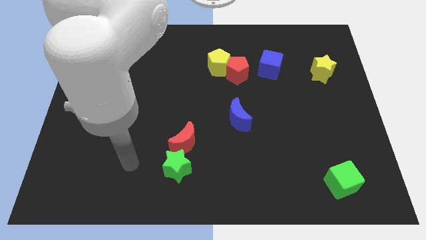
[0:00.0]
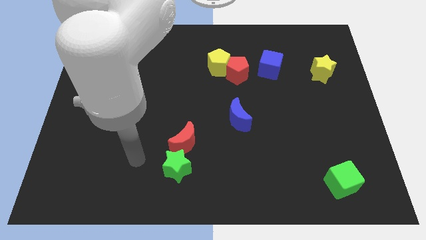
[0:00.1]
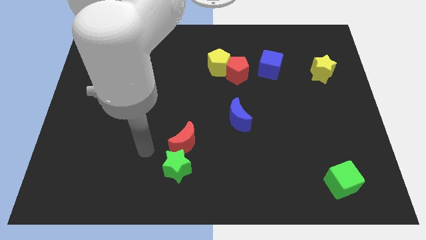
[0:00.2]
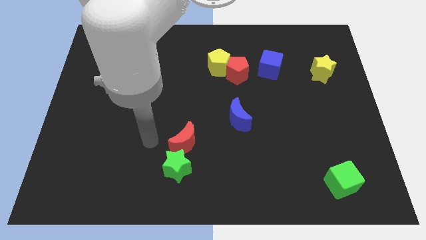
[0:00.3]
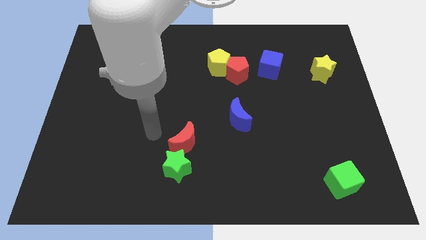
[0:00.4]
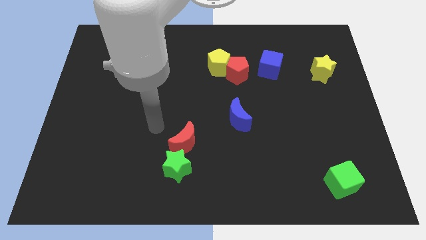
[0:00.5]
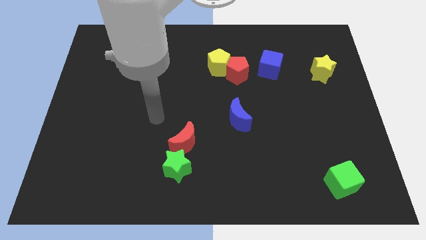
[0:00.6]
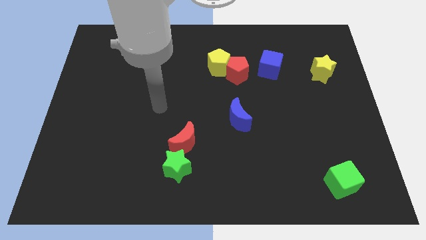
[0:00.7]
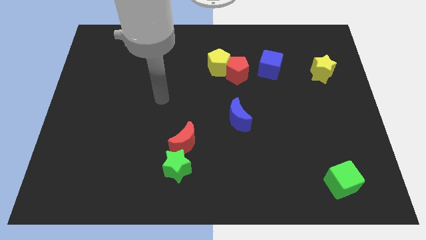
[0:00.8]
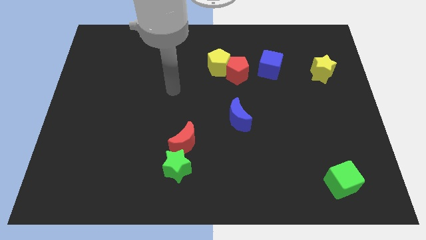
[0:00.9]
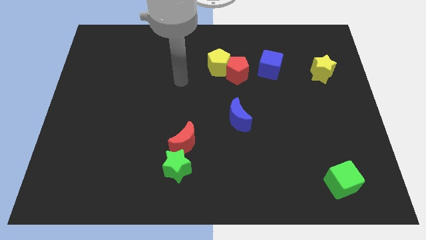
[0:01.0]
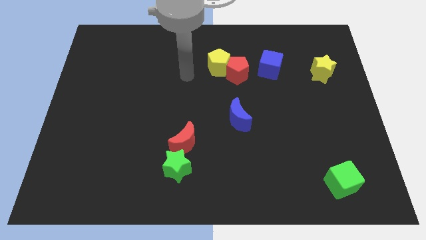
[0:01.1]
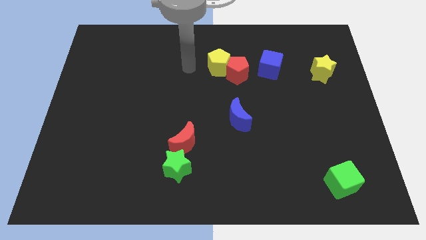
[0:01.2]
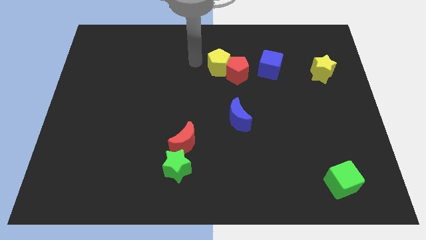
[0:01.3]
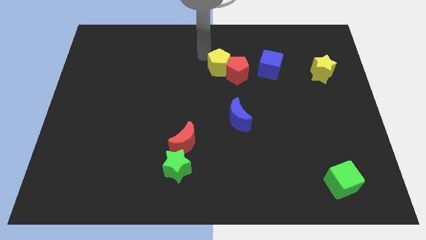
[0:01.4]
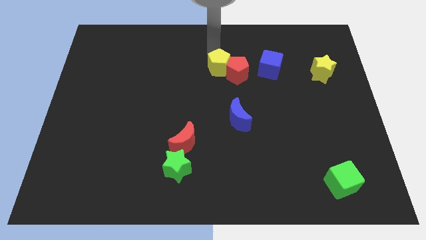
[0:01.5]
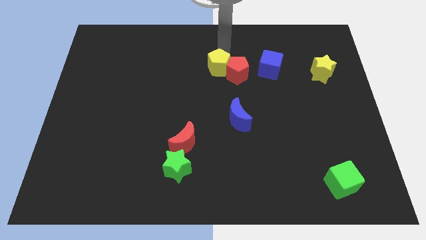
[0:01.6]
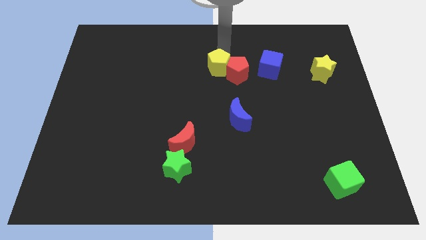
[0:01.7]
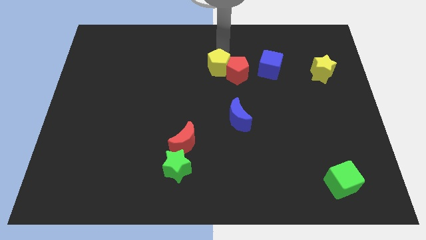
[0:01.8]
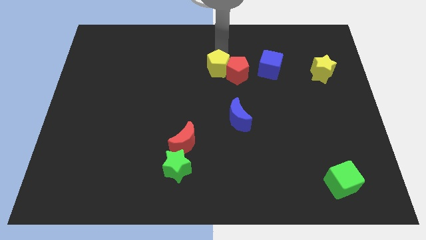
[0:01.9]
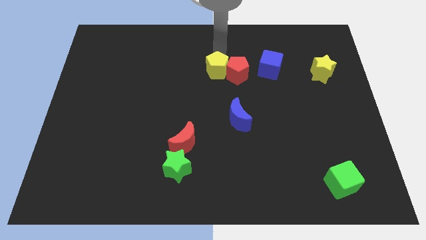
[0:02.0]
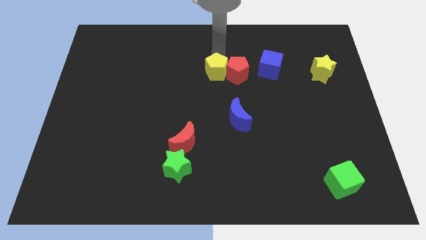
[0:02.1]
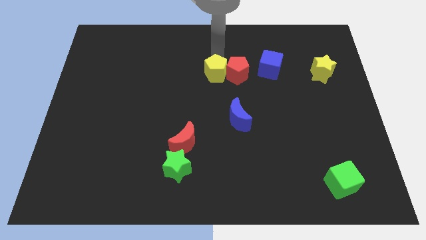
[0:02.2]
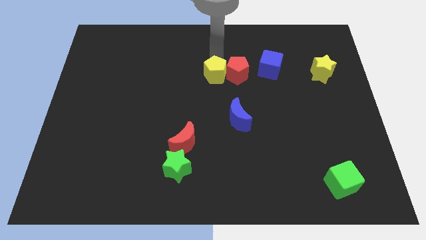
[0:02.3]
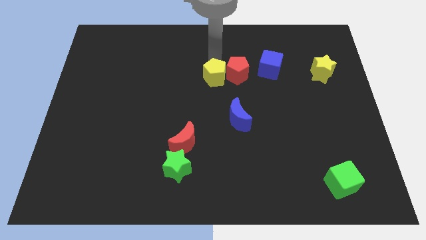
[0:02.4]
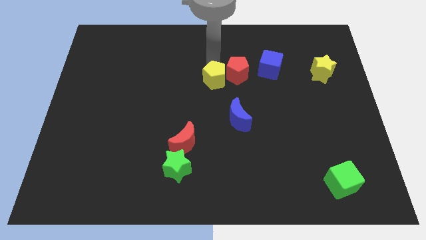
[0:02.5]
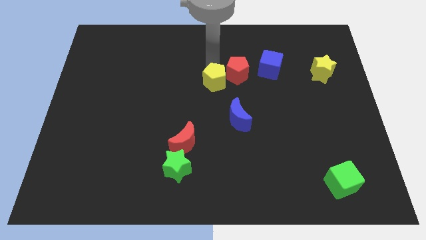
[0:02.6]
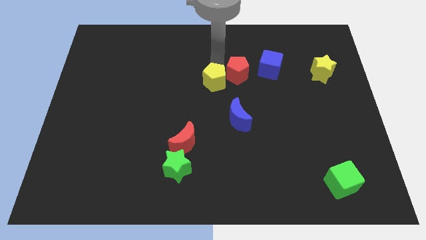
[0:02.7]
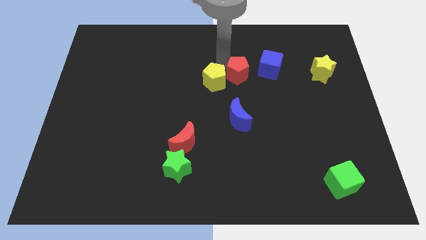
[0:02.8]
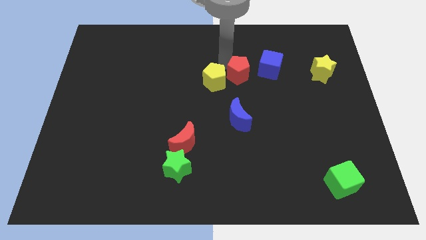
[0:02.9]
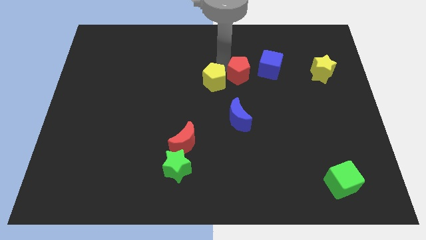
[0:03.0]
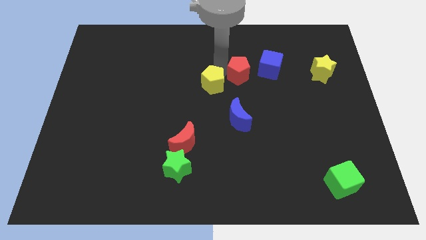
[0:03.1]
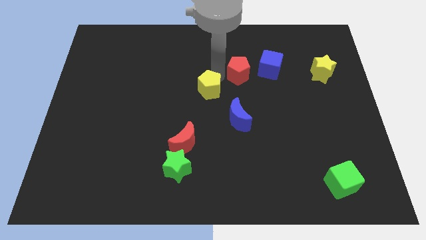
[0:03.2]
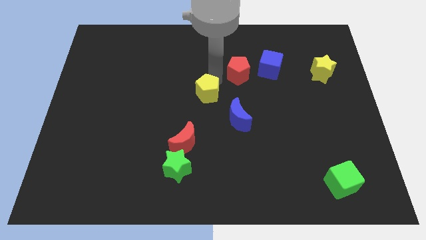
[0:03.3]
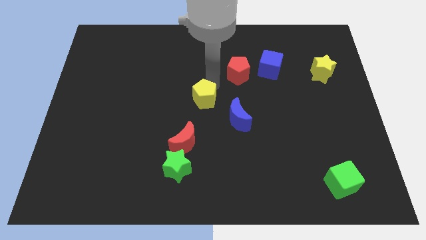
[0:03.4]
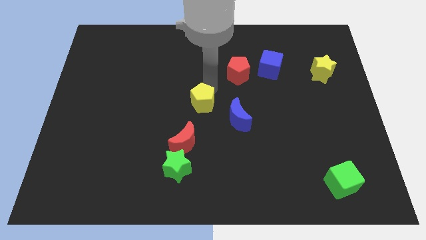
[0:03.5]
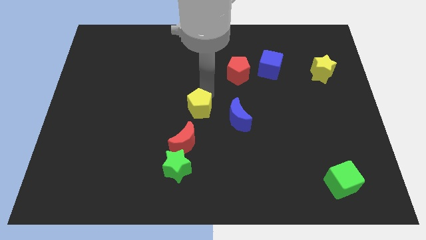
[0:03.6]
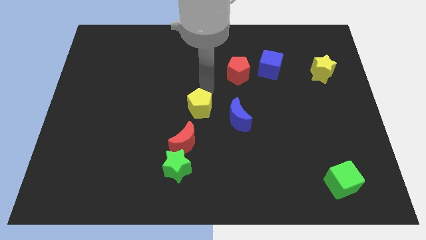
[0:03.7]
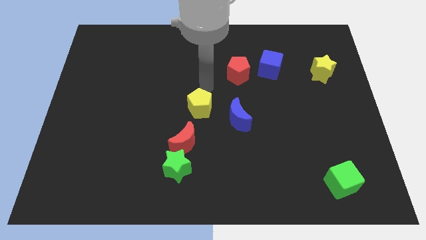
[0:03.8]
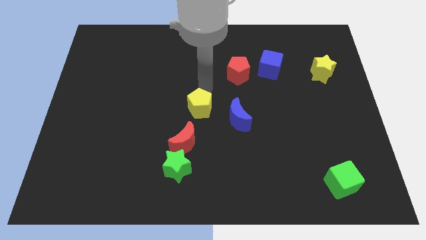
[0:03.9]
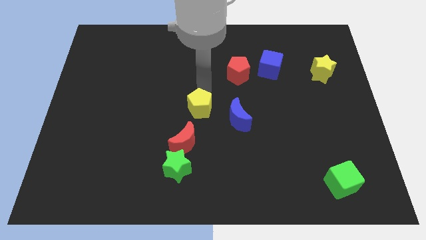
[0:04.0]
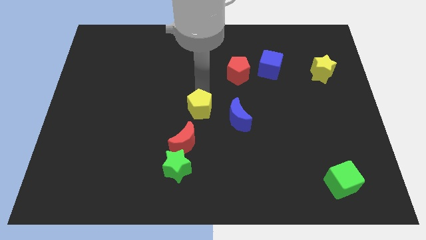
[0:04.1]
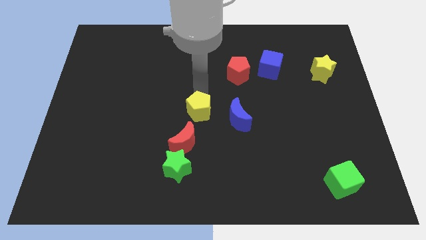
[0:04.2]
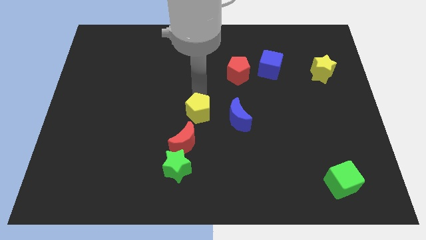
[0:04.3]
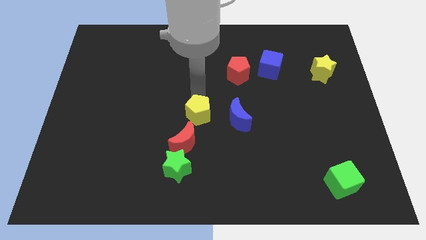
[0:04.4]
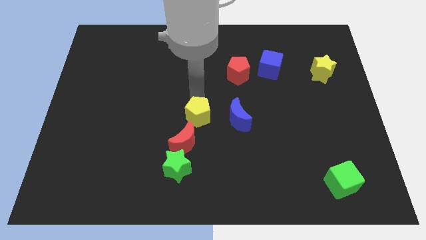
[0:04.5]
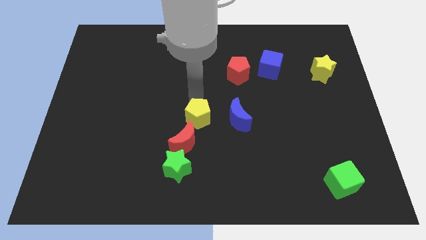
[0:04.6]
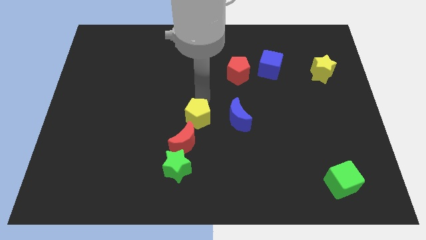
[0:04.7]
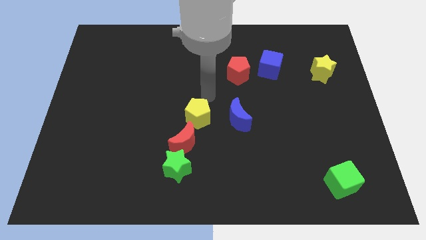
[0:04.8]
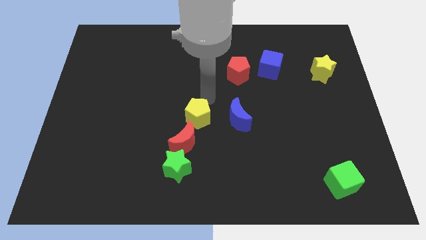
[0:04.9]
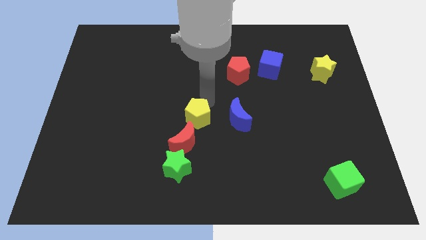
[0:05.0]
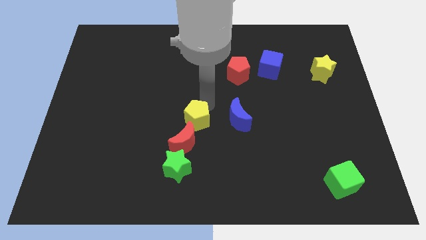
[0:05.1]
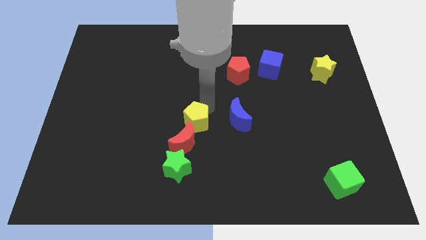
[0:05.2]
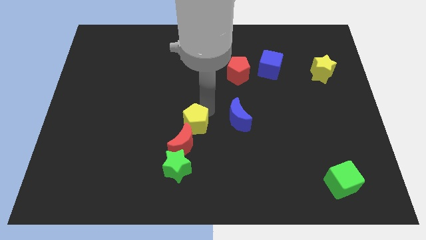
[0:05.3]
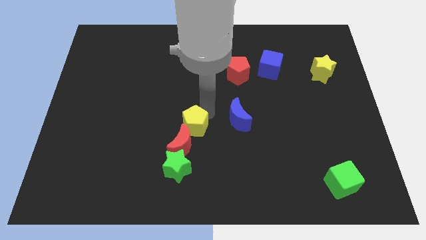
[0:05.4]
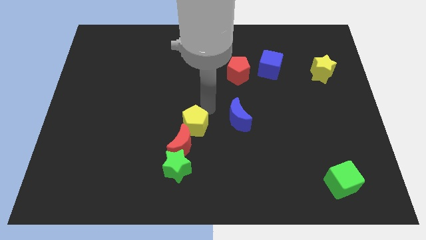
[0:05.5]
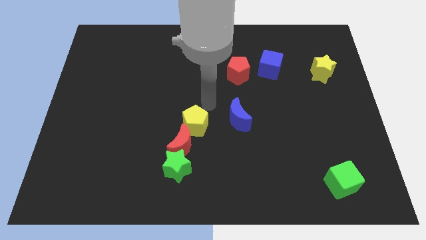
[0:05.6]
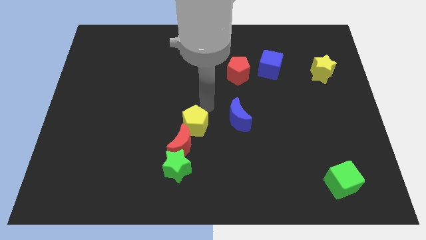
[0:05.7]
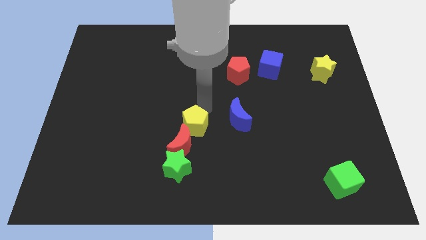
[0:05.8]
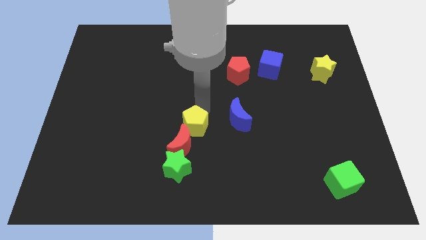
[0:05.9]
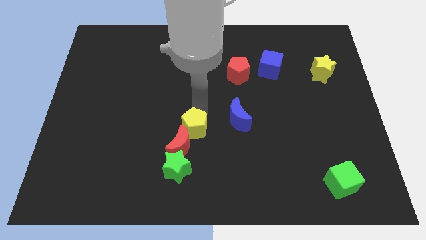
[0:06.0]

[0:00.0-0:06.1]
push the yellow pentagon towards the red moon

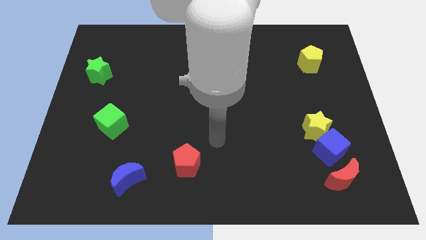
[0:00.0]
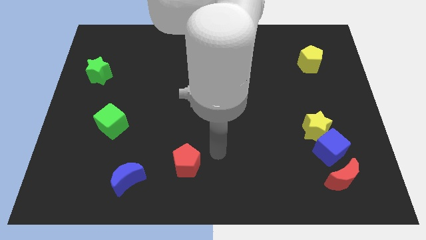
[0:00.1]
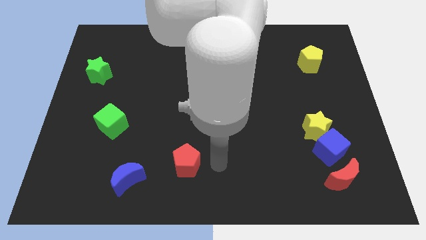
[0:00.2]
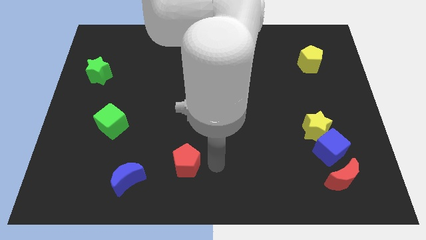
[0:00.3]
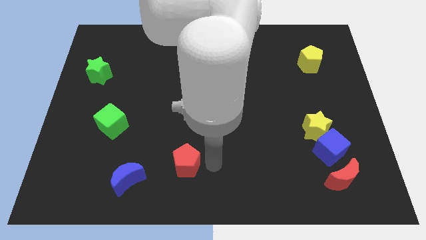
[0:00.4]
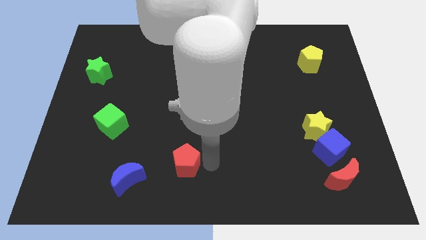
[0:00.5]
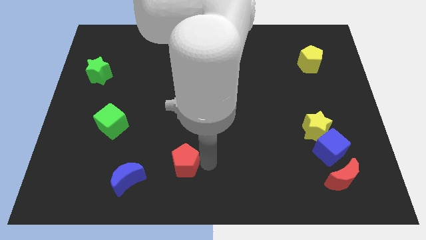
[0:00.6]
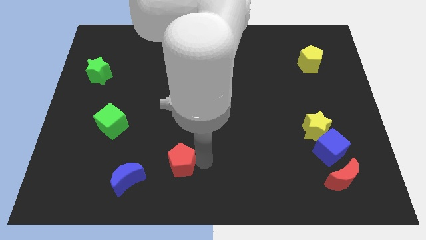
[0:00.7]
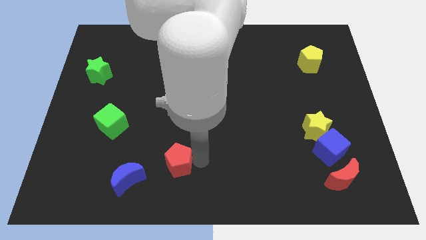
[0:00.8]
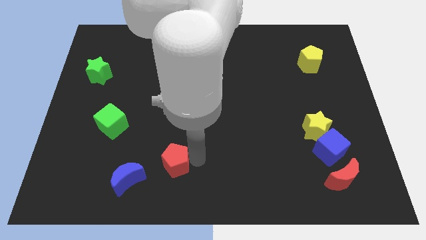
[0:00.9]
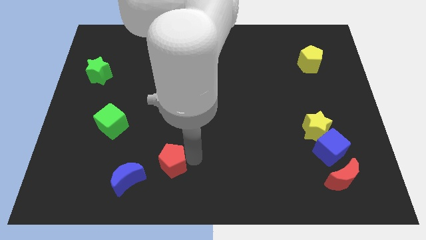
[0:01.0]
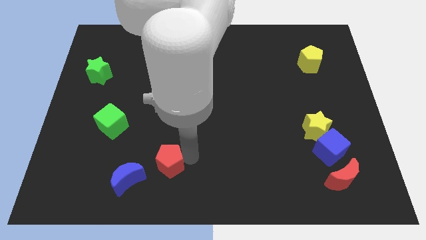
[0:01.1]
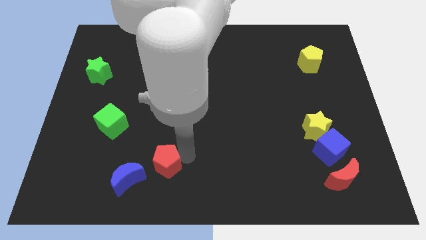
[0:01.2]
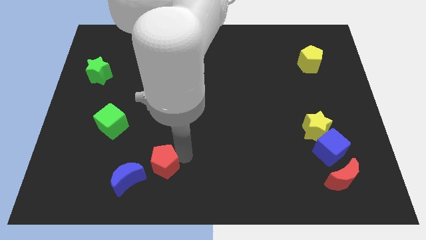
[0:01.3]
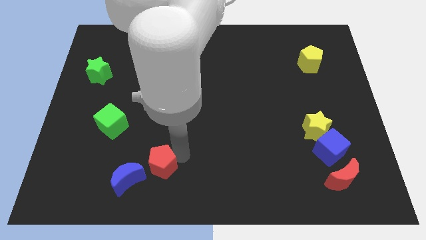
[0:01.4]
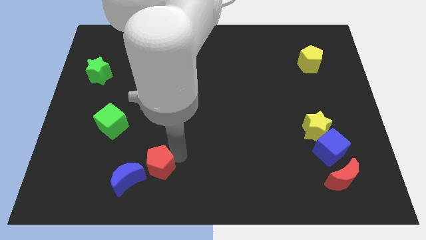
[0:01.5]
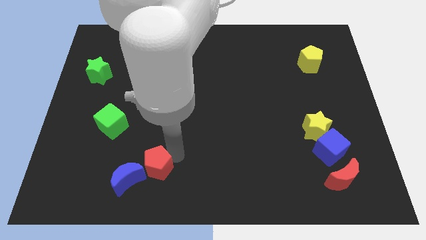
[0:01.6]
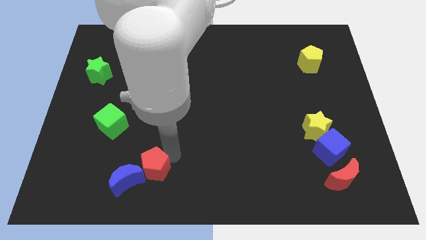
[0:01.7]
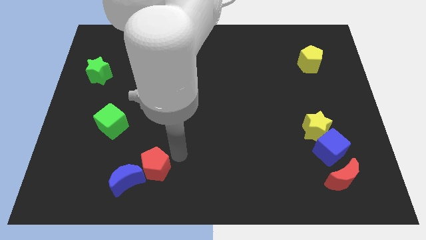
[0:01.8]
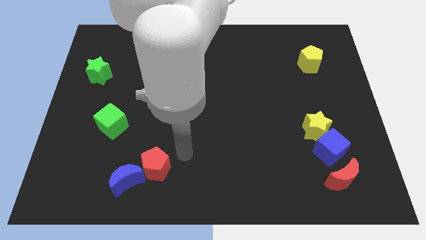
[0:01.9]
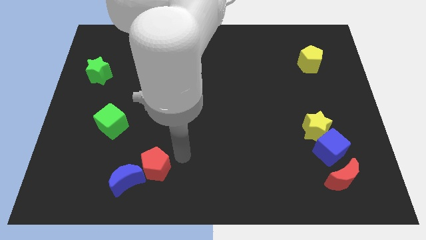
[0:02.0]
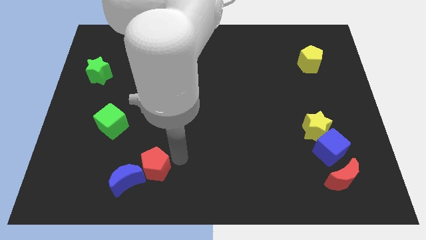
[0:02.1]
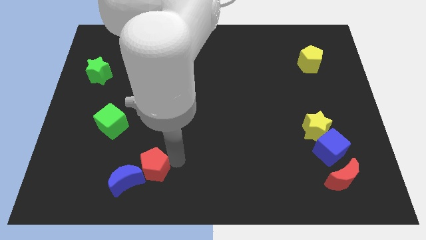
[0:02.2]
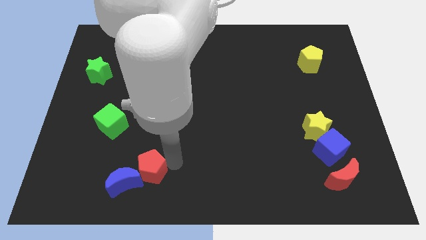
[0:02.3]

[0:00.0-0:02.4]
slide the red pentagon towards the blue moon
